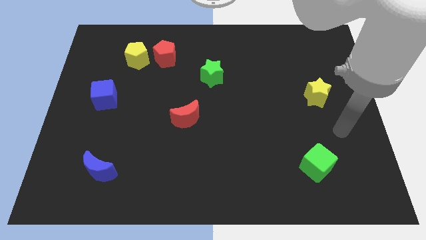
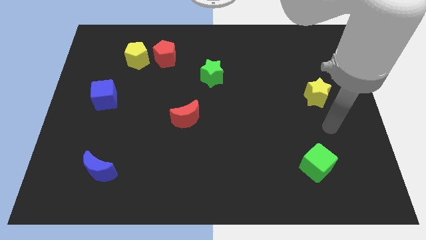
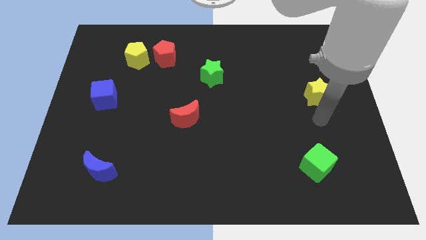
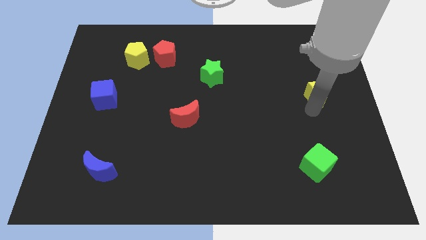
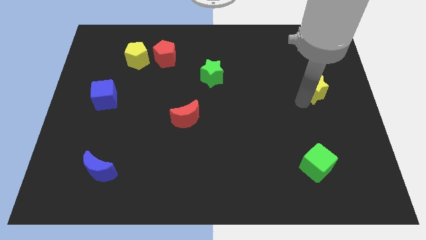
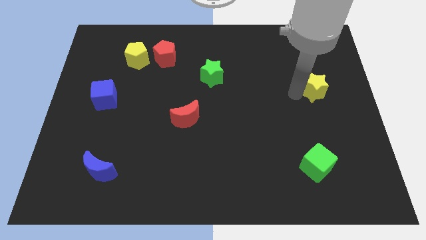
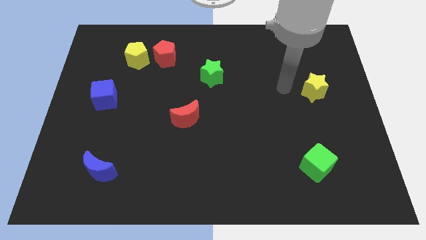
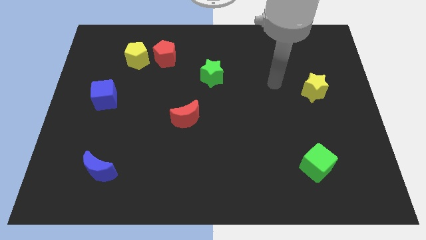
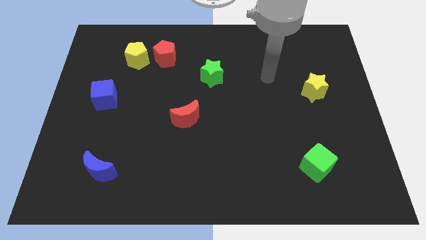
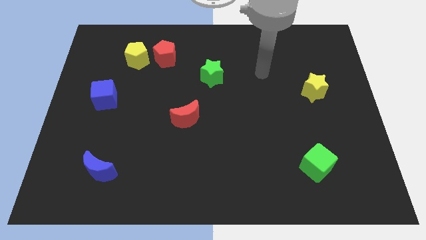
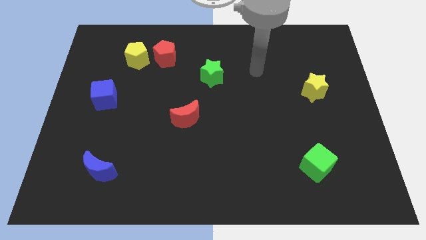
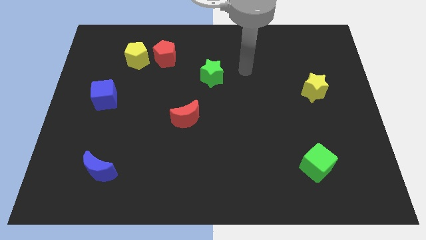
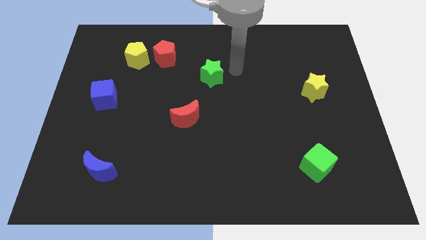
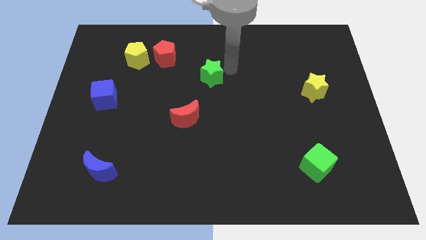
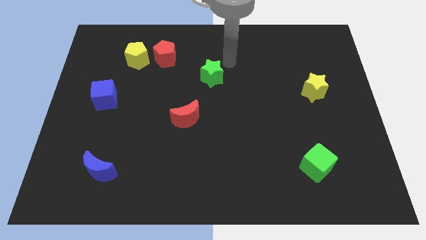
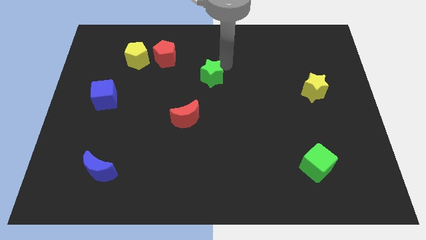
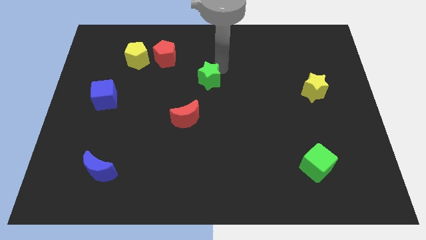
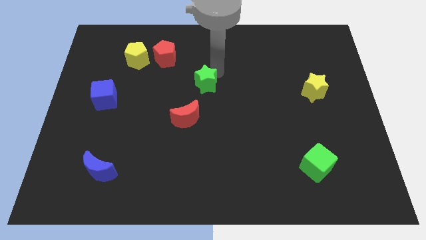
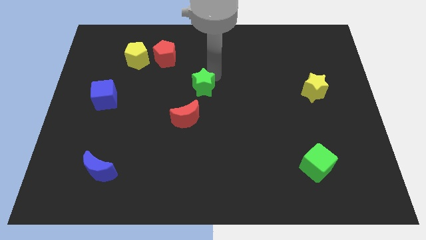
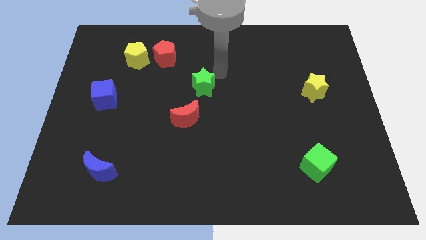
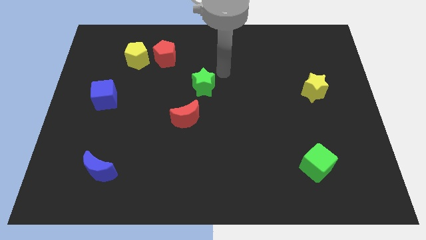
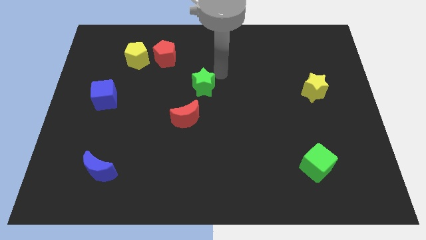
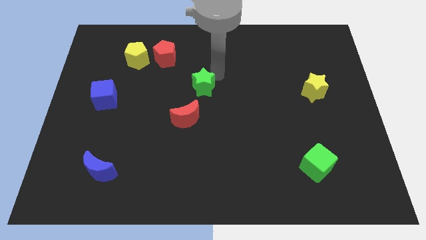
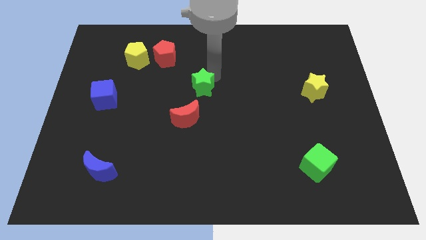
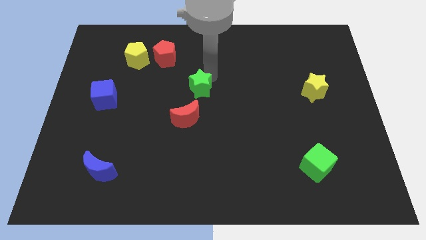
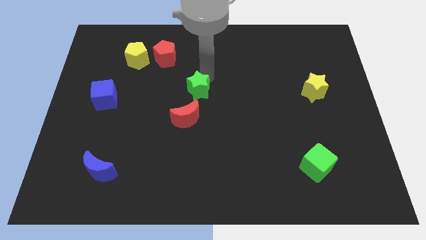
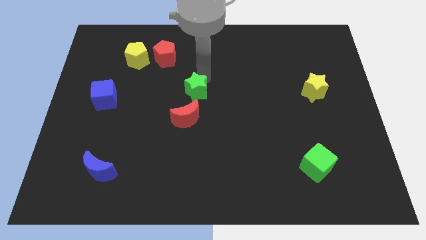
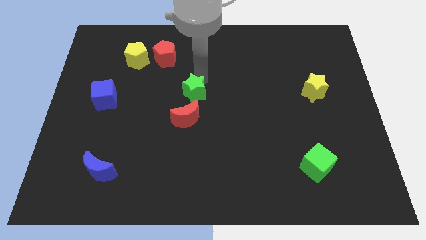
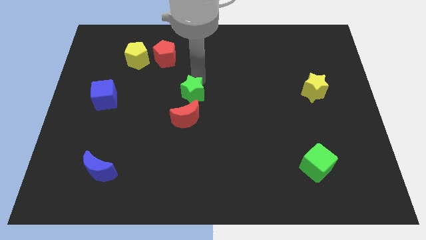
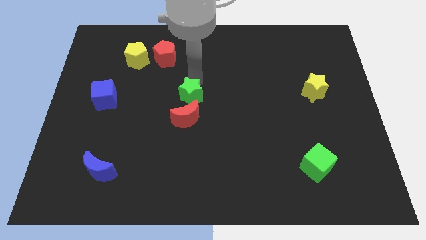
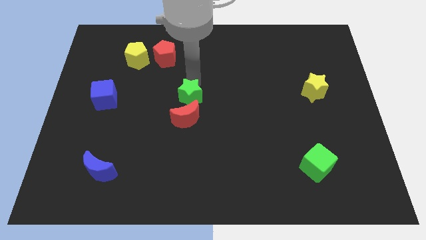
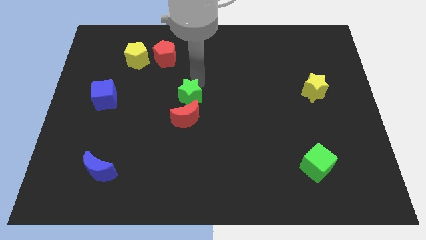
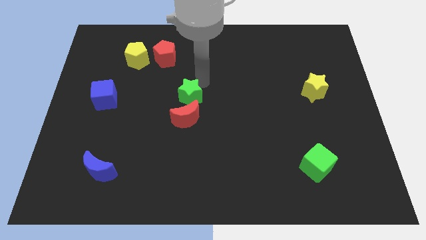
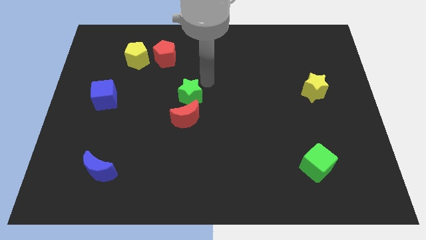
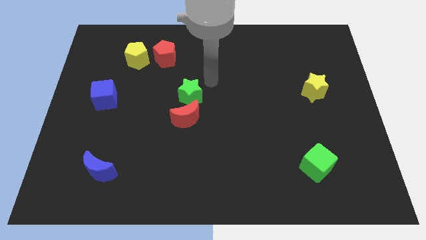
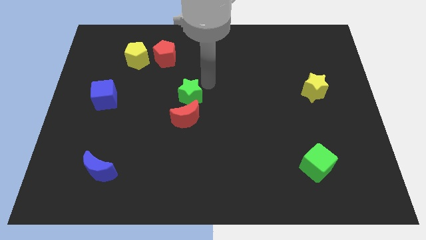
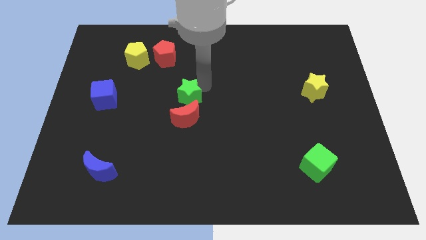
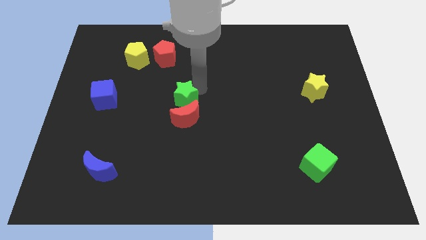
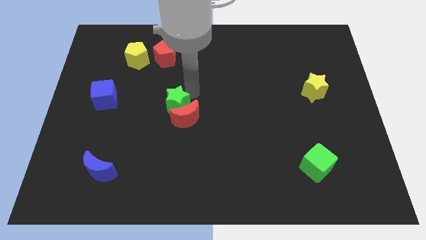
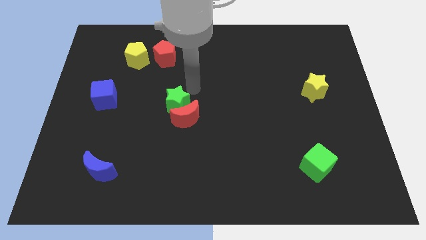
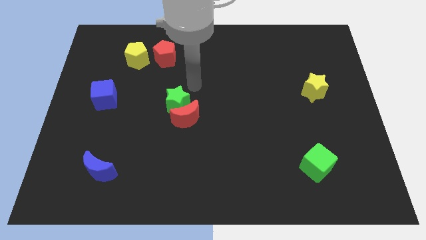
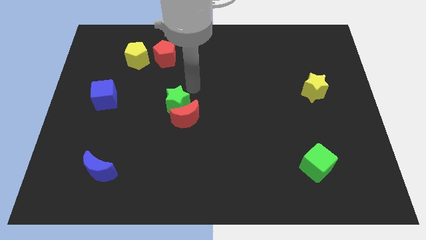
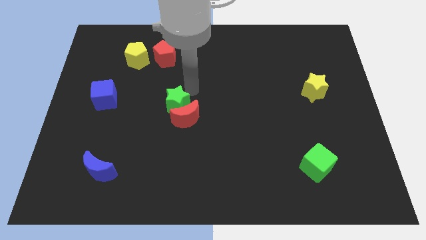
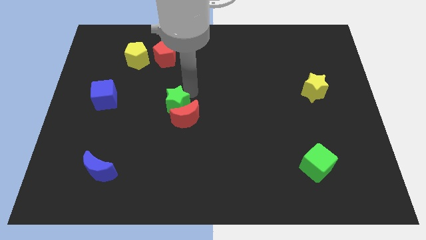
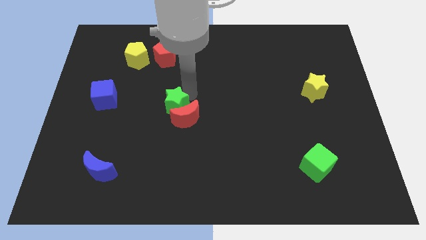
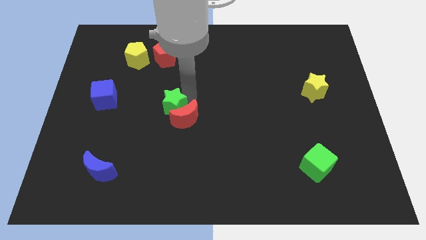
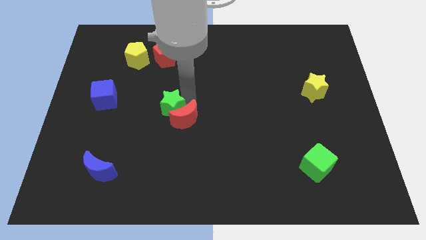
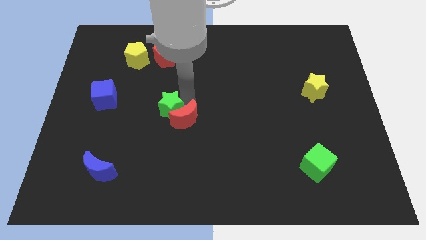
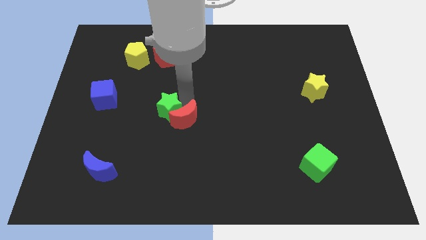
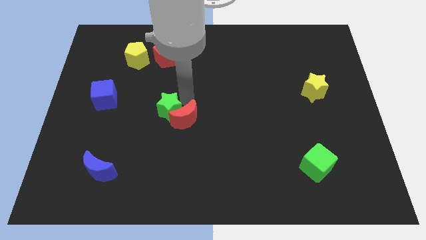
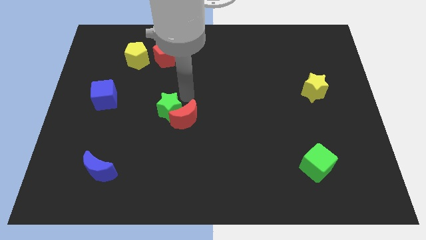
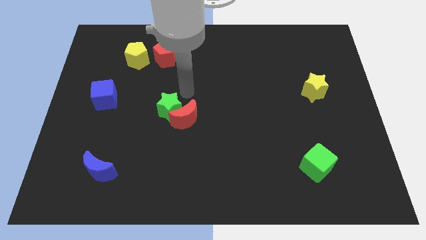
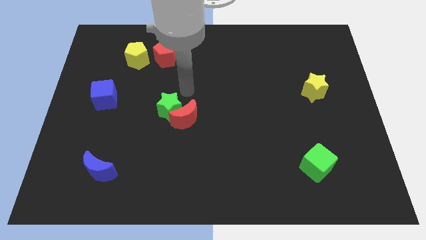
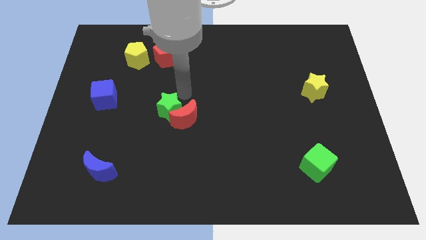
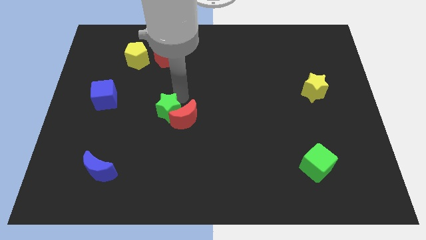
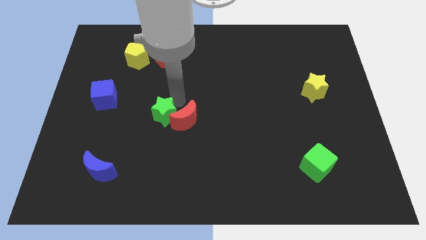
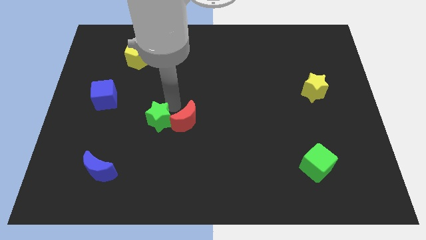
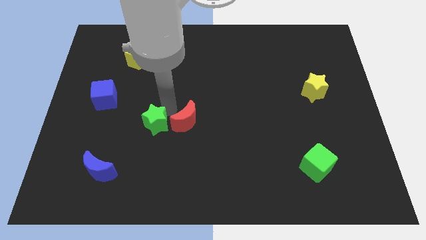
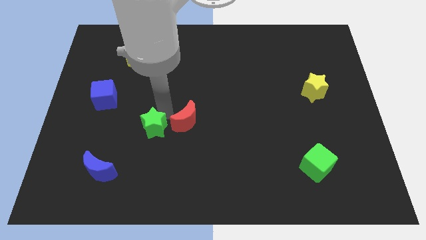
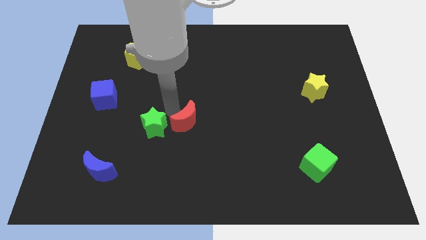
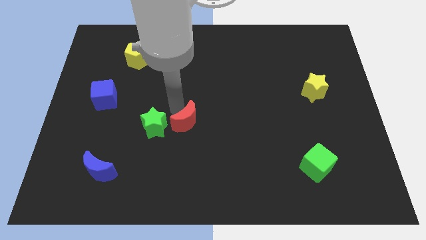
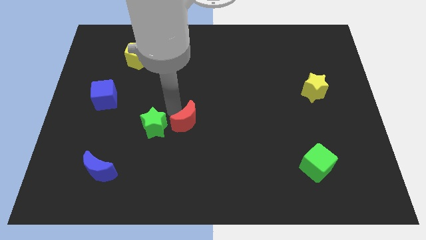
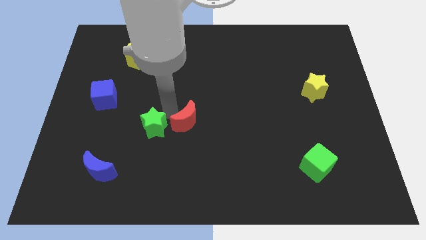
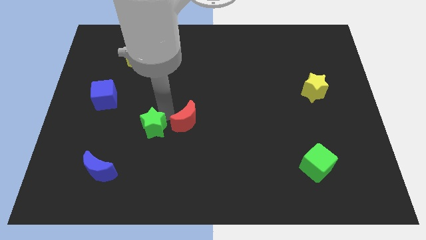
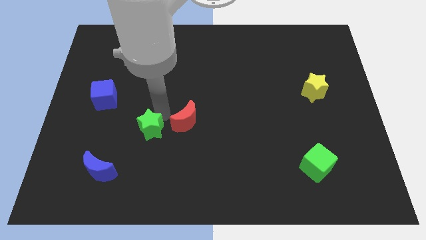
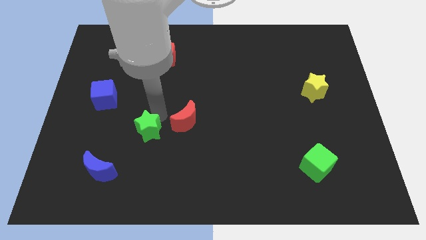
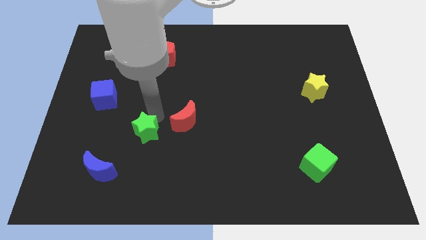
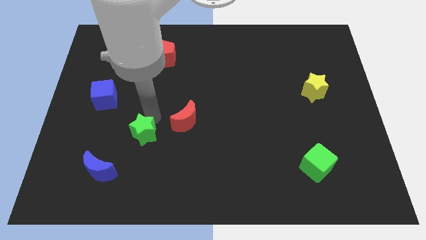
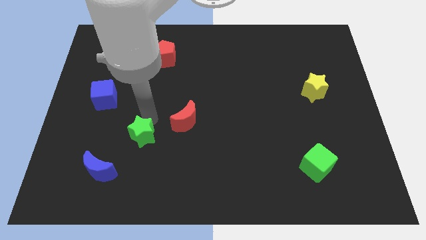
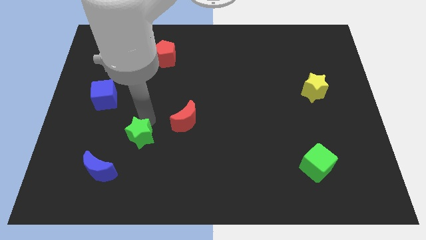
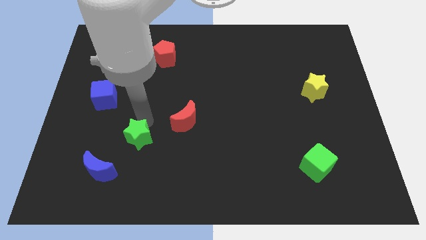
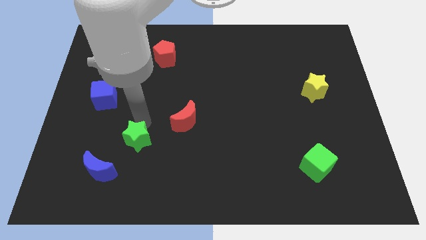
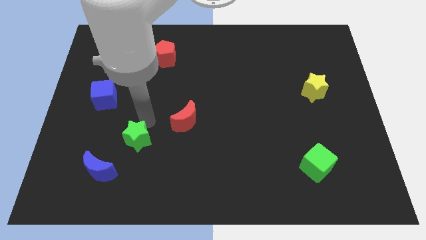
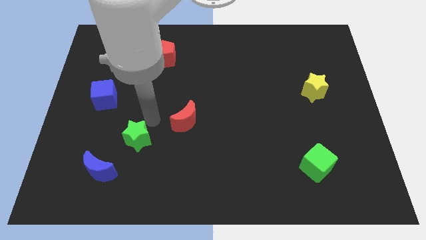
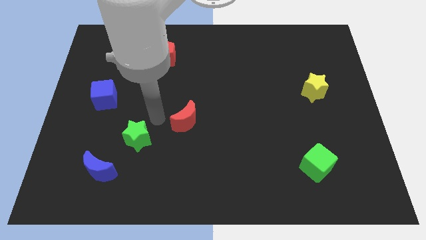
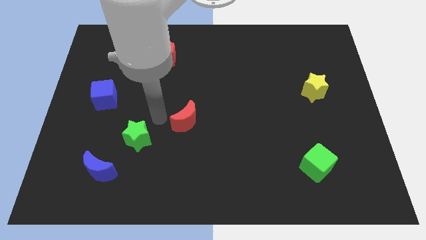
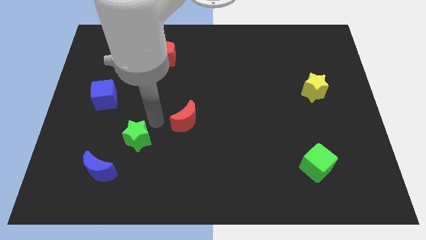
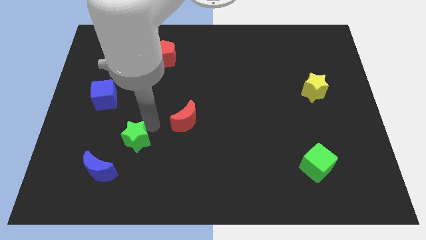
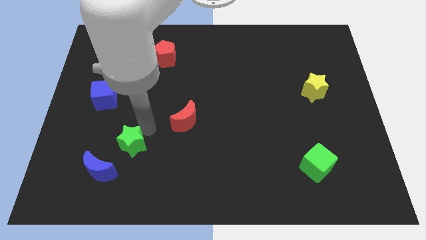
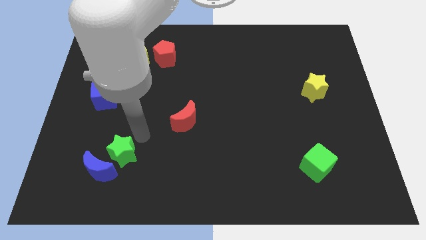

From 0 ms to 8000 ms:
slide the green star next to the blue moon
